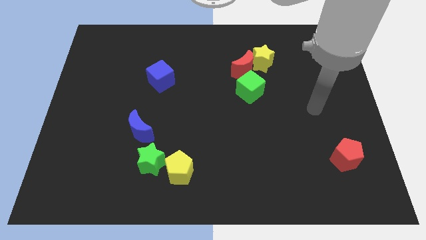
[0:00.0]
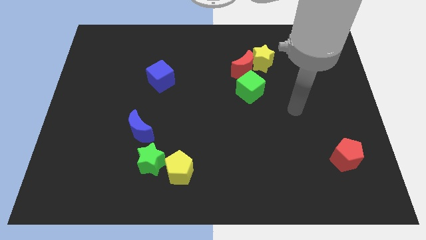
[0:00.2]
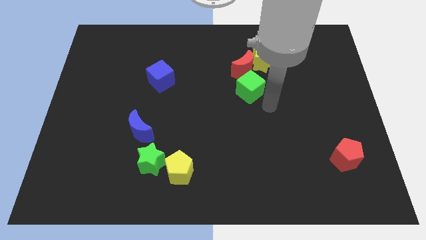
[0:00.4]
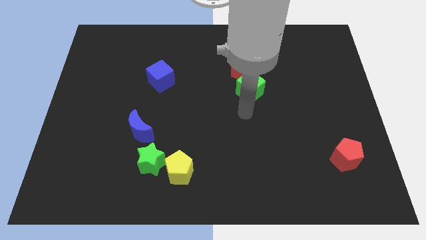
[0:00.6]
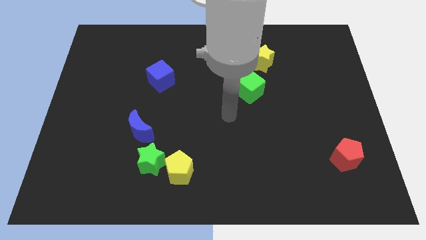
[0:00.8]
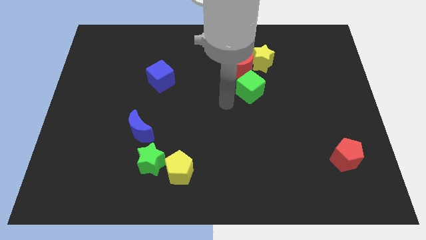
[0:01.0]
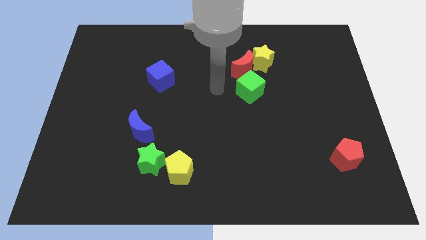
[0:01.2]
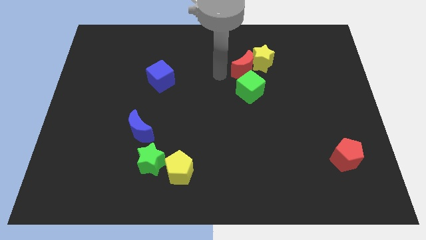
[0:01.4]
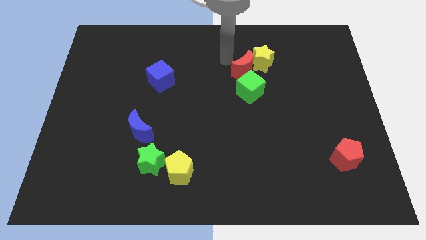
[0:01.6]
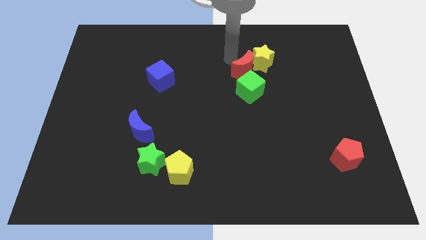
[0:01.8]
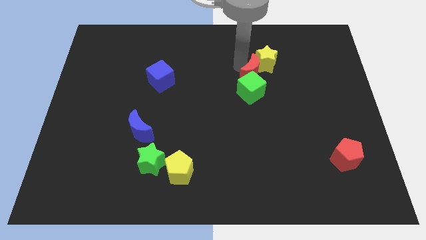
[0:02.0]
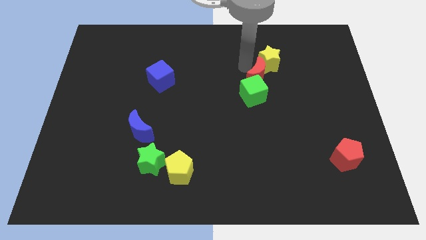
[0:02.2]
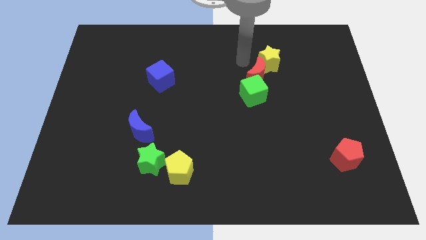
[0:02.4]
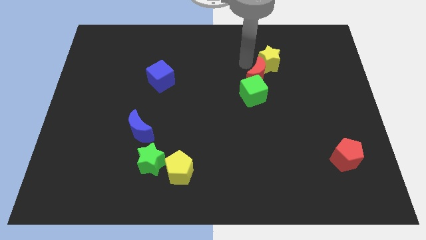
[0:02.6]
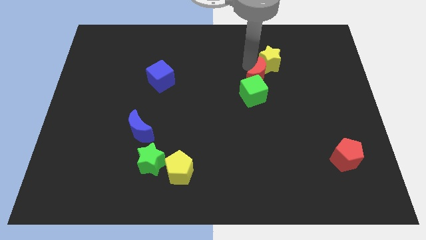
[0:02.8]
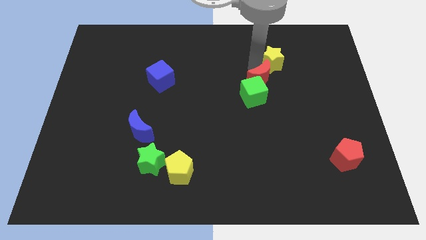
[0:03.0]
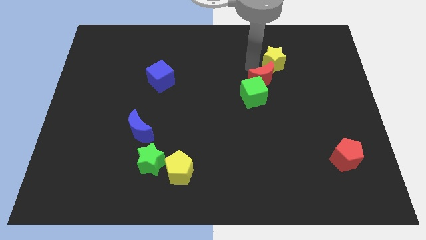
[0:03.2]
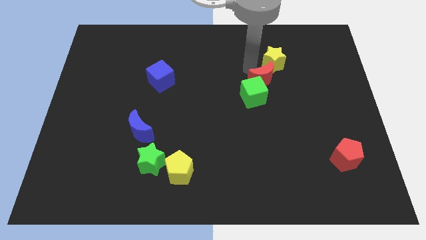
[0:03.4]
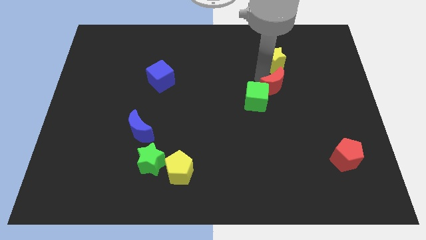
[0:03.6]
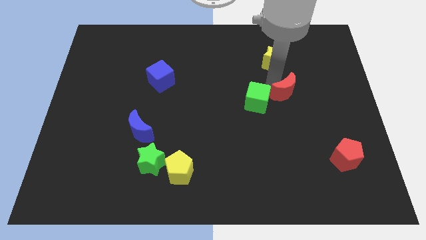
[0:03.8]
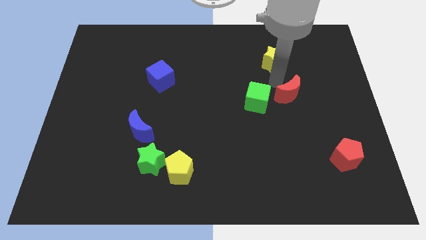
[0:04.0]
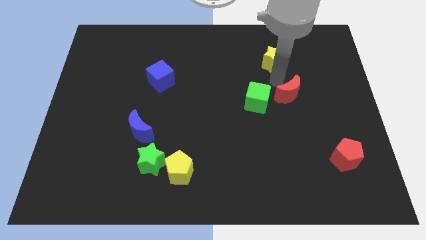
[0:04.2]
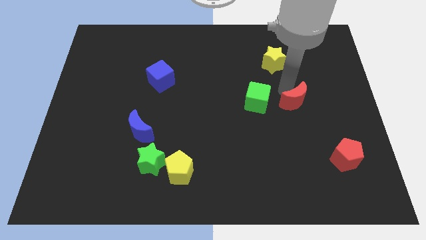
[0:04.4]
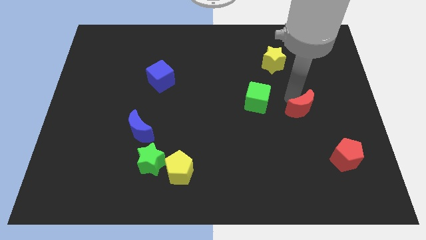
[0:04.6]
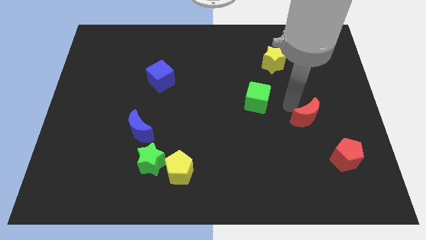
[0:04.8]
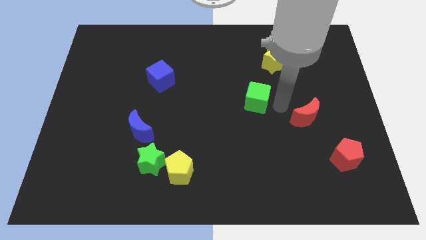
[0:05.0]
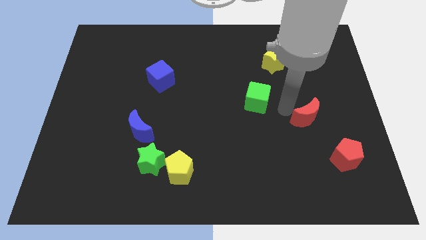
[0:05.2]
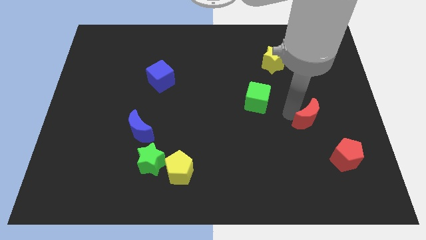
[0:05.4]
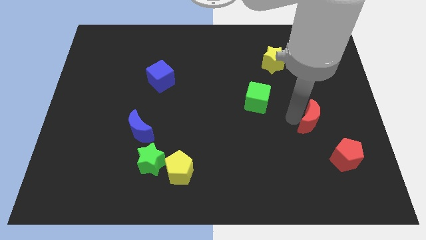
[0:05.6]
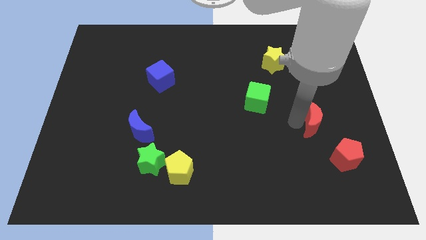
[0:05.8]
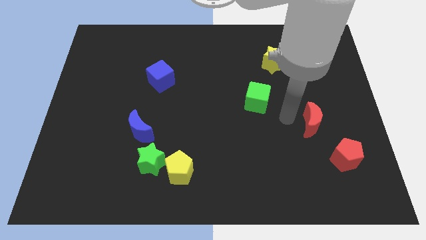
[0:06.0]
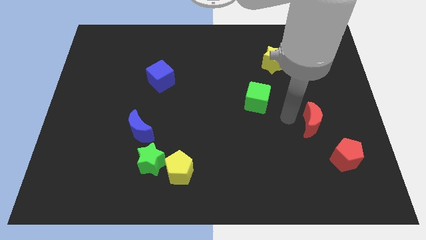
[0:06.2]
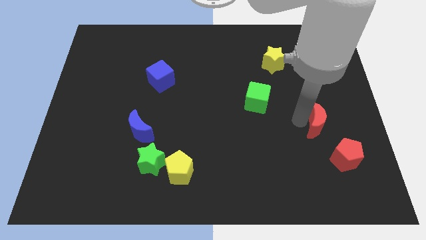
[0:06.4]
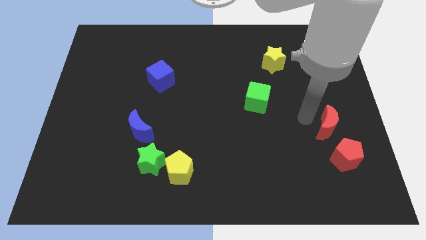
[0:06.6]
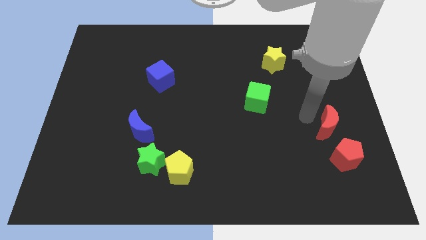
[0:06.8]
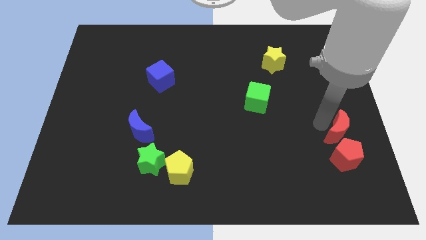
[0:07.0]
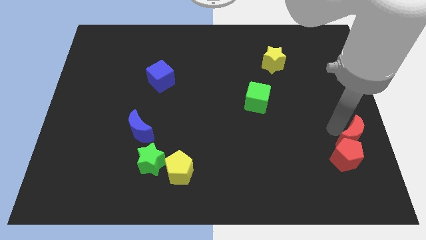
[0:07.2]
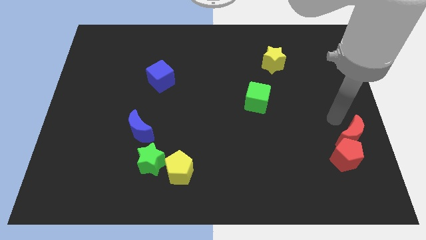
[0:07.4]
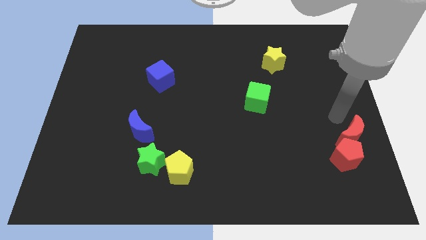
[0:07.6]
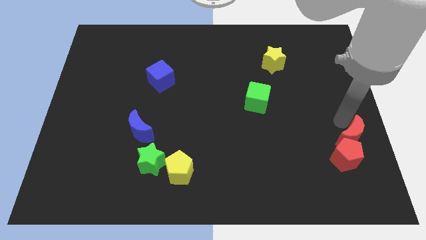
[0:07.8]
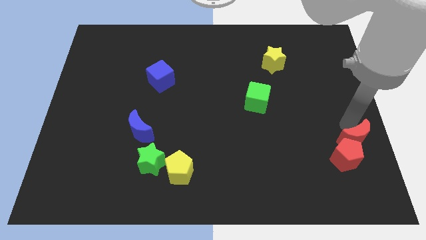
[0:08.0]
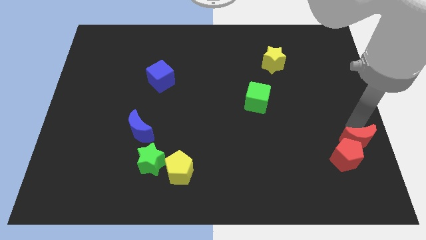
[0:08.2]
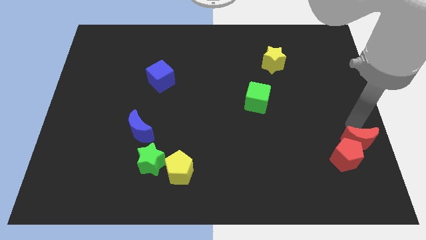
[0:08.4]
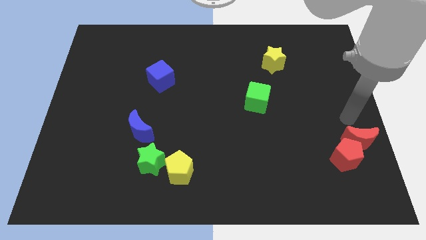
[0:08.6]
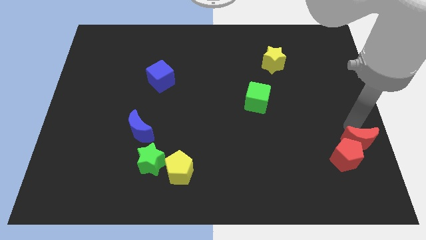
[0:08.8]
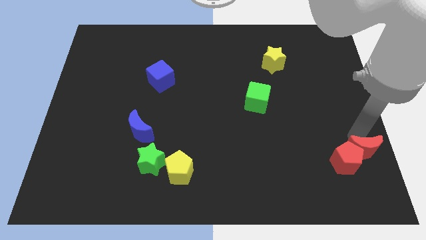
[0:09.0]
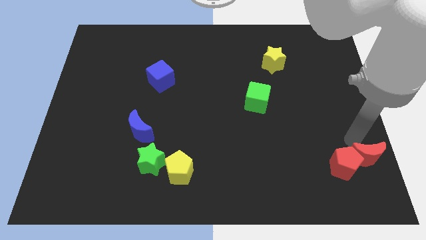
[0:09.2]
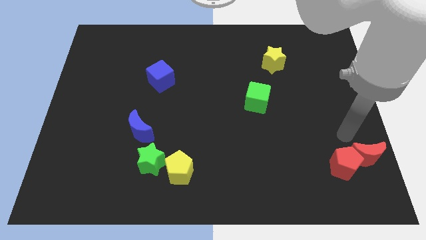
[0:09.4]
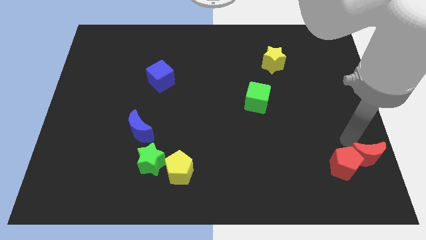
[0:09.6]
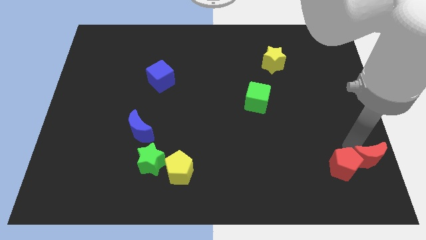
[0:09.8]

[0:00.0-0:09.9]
put the red moon to the bottom right of the board

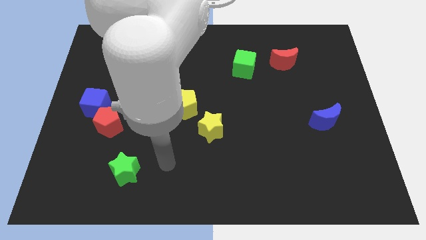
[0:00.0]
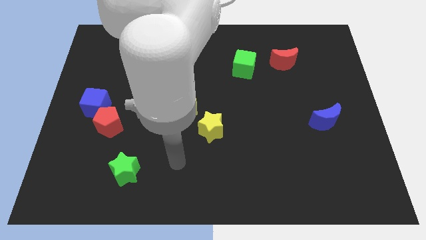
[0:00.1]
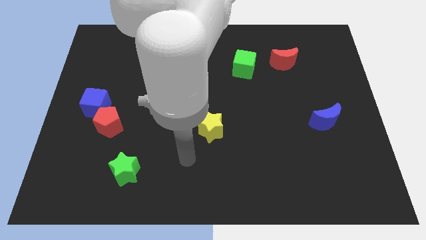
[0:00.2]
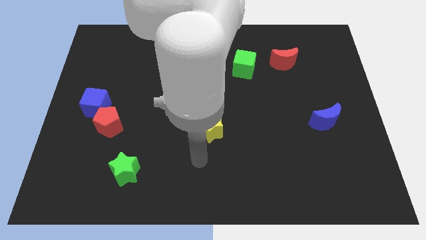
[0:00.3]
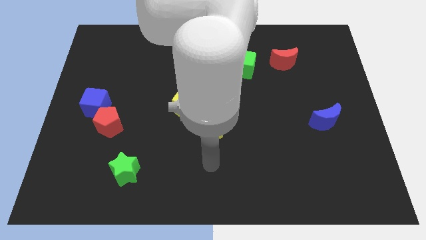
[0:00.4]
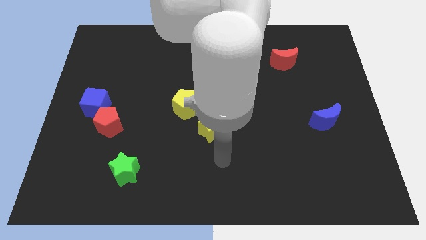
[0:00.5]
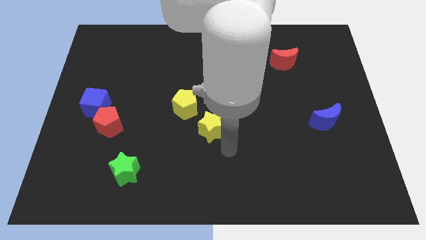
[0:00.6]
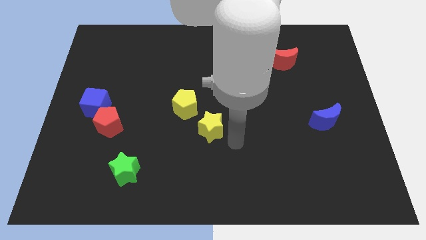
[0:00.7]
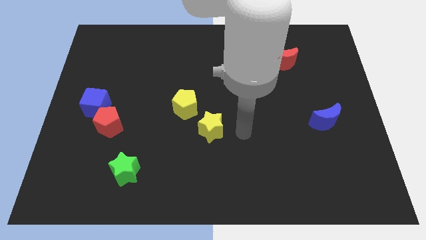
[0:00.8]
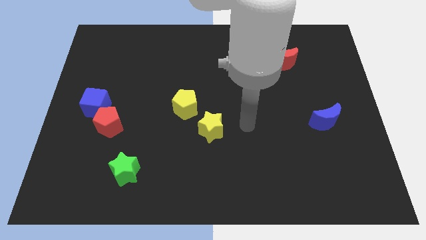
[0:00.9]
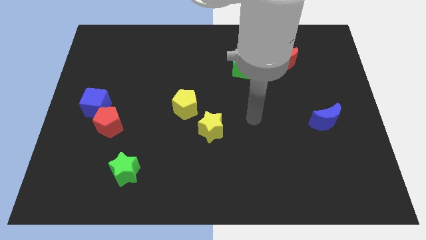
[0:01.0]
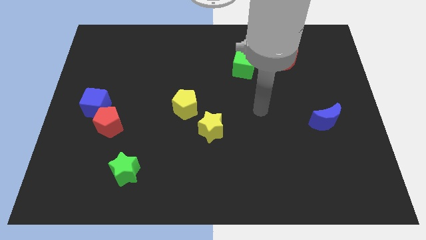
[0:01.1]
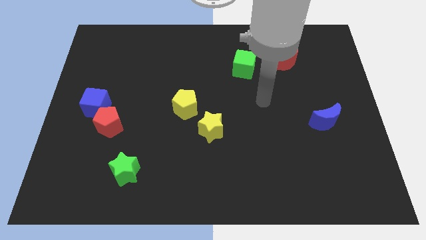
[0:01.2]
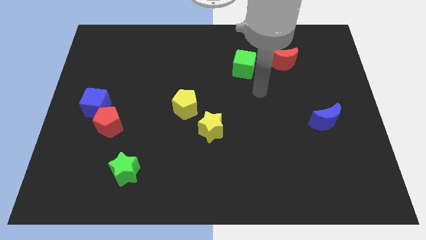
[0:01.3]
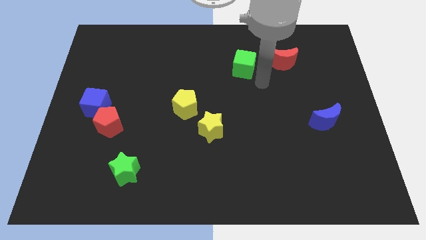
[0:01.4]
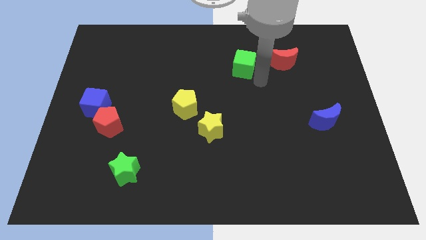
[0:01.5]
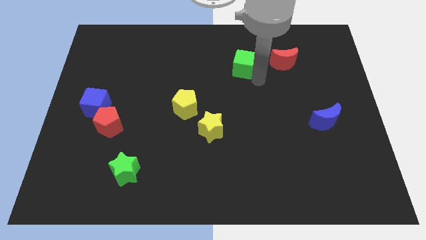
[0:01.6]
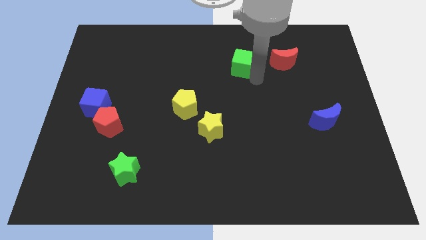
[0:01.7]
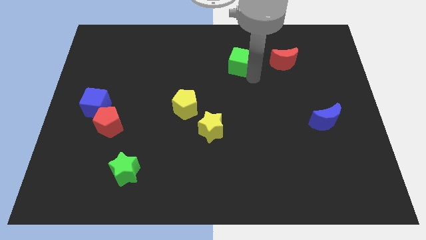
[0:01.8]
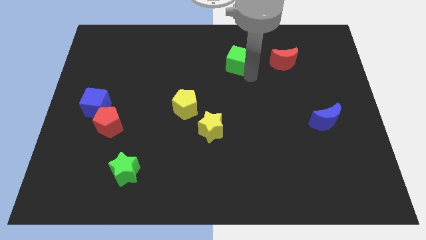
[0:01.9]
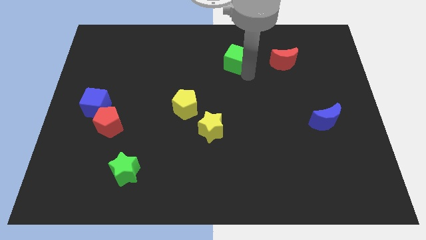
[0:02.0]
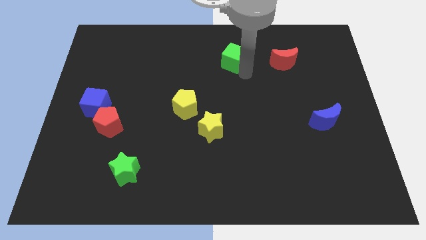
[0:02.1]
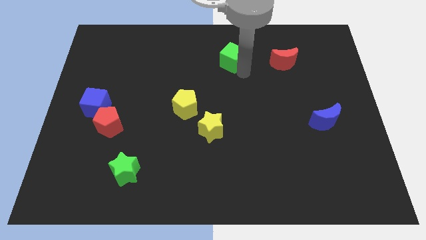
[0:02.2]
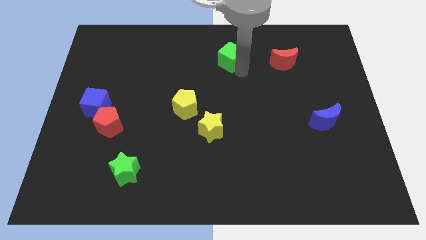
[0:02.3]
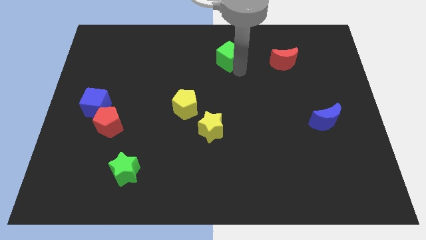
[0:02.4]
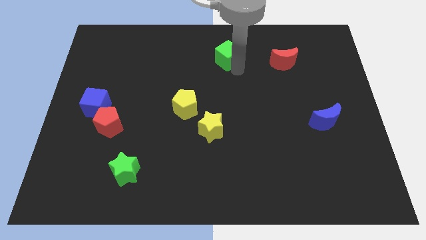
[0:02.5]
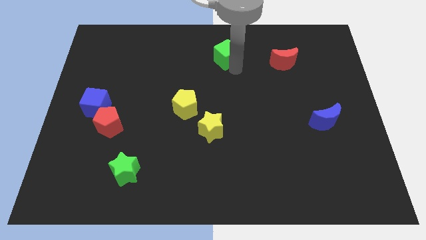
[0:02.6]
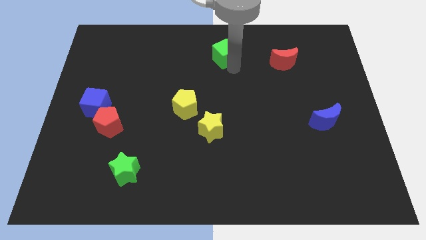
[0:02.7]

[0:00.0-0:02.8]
put the green cube to the top side
